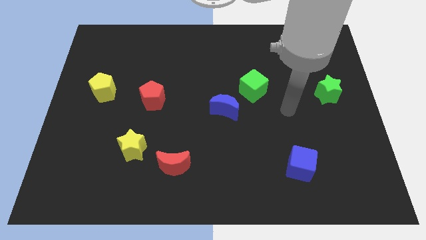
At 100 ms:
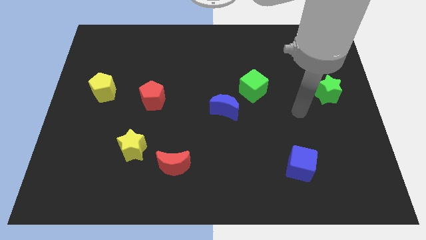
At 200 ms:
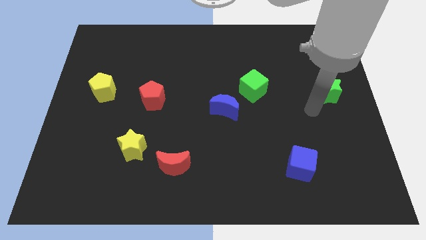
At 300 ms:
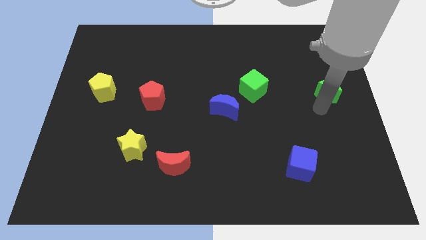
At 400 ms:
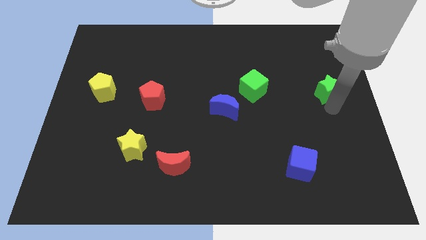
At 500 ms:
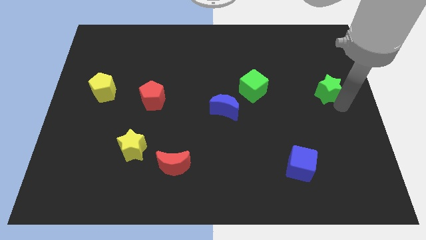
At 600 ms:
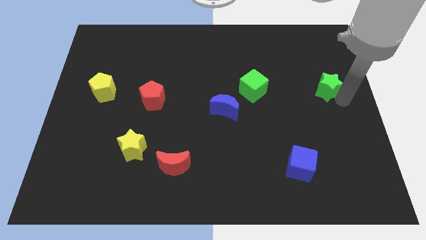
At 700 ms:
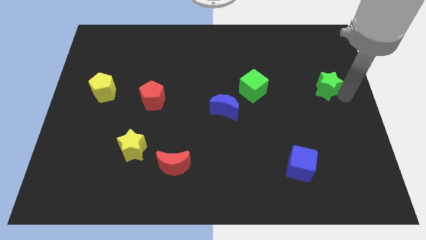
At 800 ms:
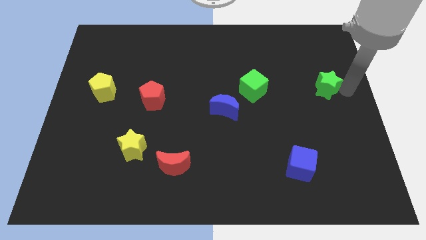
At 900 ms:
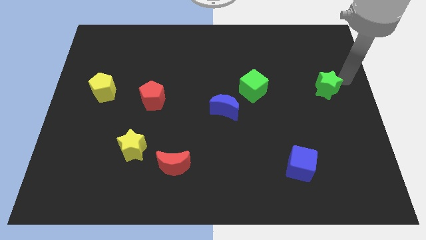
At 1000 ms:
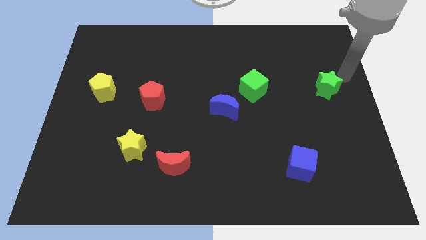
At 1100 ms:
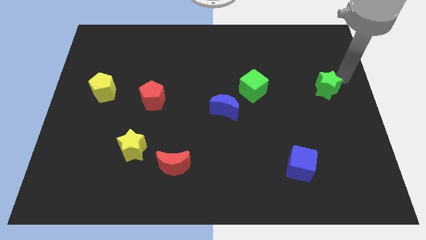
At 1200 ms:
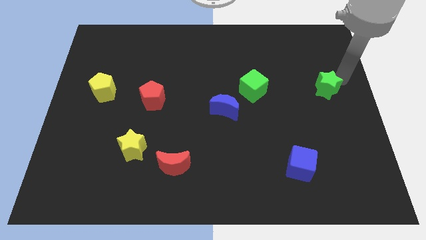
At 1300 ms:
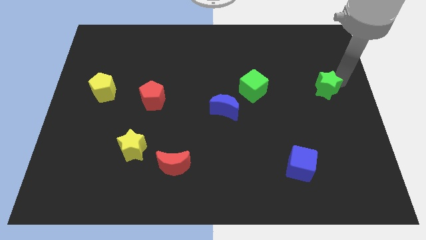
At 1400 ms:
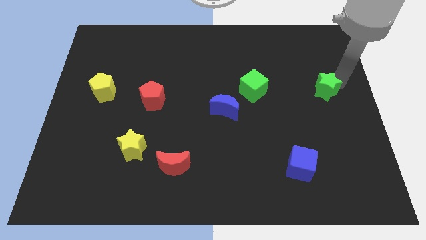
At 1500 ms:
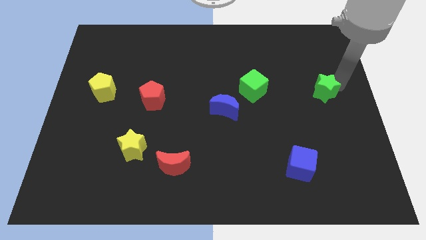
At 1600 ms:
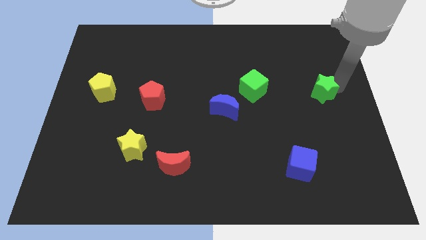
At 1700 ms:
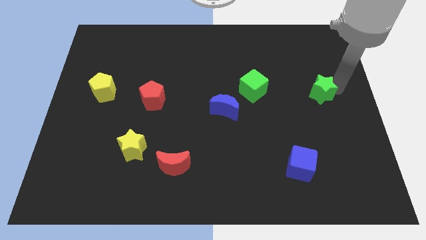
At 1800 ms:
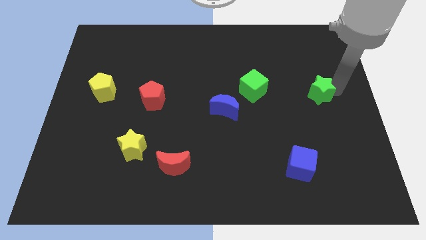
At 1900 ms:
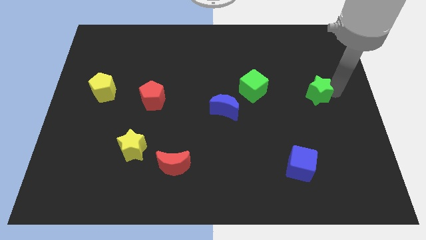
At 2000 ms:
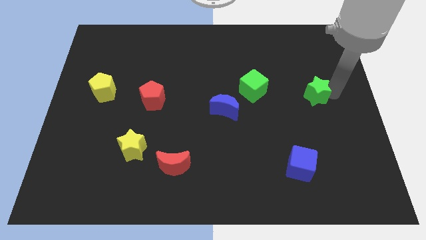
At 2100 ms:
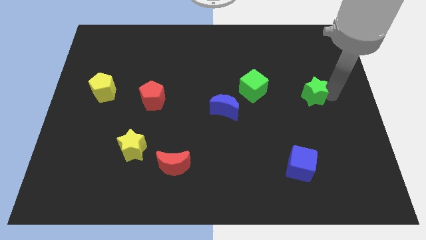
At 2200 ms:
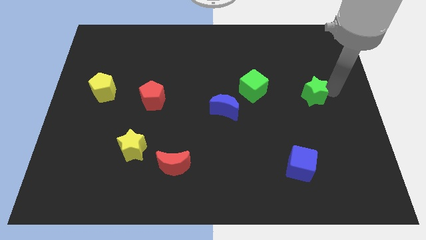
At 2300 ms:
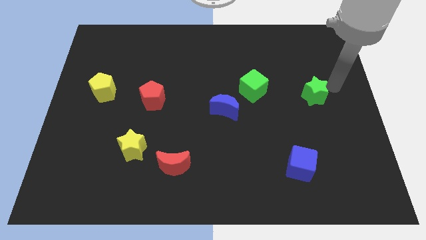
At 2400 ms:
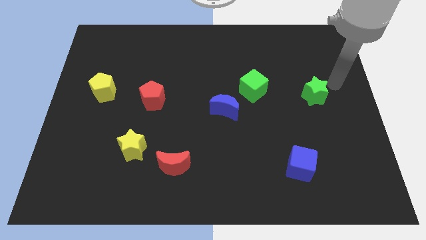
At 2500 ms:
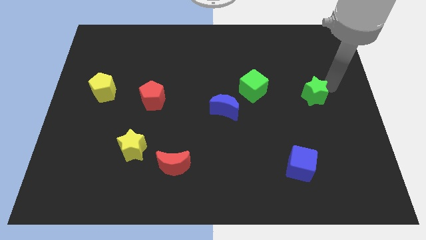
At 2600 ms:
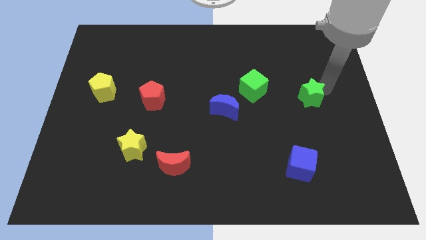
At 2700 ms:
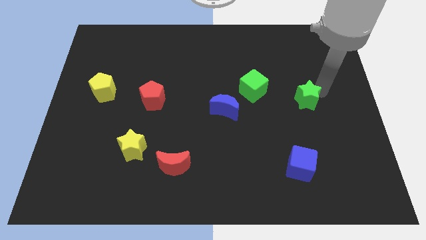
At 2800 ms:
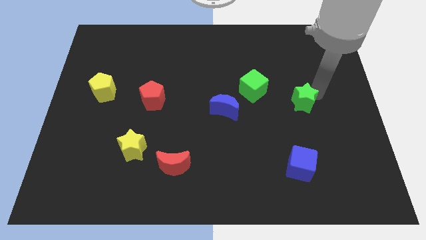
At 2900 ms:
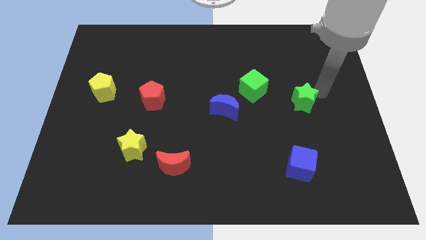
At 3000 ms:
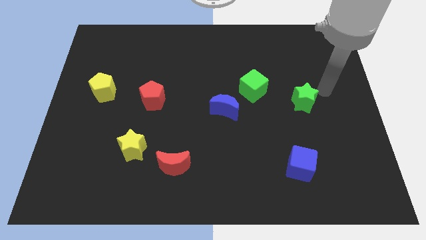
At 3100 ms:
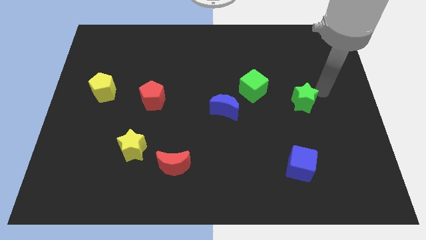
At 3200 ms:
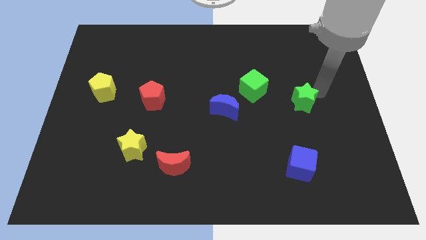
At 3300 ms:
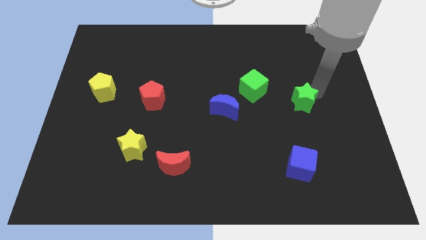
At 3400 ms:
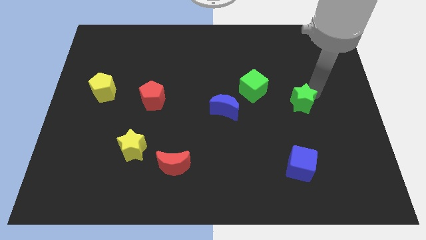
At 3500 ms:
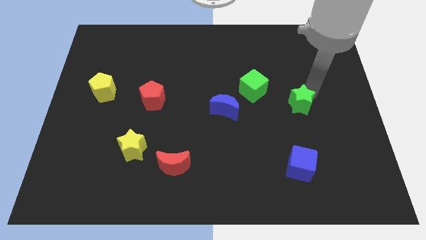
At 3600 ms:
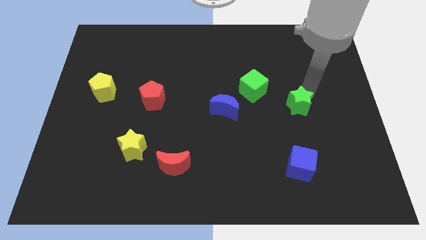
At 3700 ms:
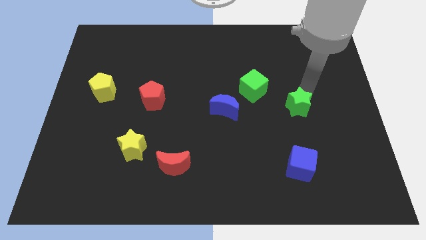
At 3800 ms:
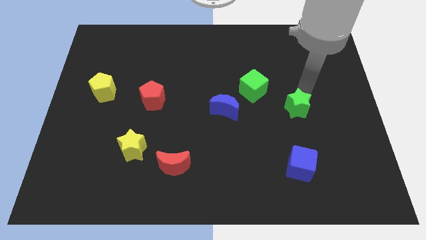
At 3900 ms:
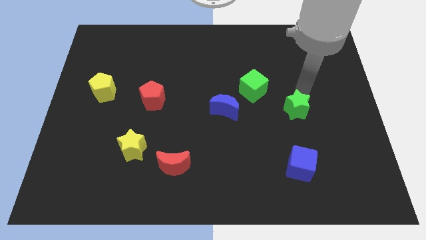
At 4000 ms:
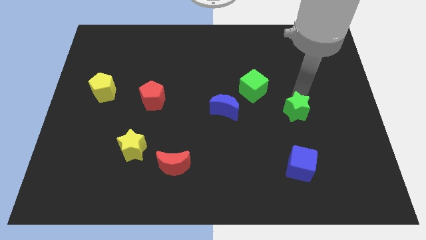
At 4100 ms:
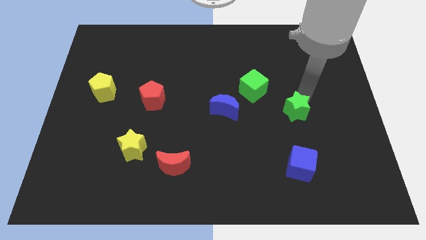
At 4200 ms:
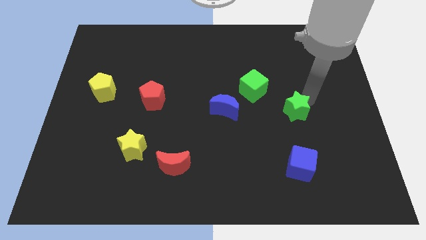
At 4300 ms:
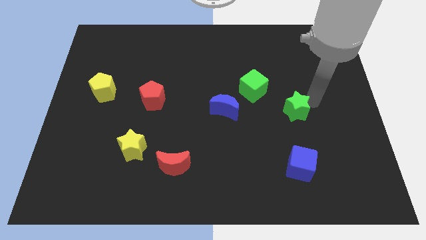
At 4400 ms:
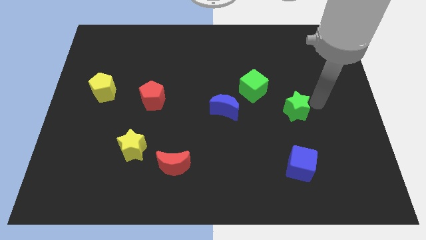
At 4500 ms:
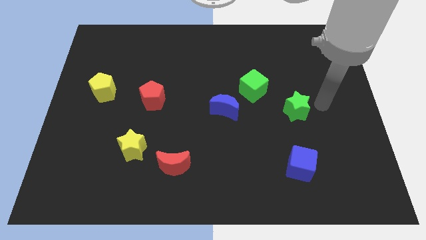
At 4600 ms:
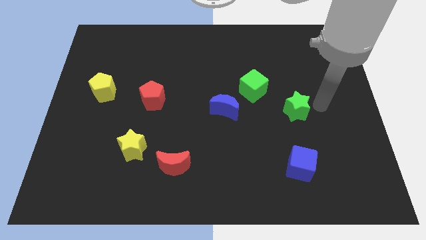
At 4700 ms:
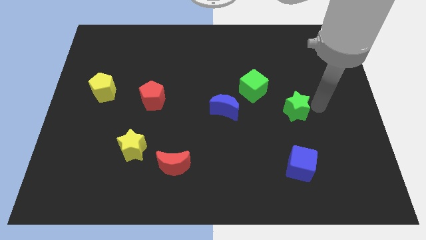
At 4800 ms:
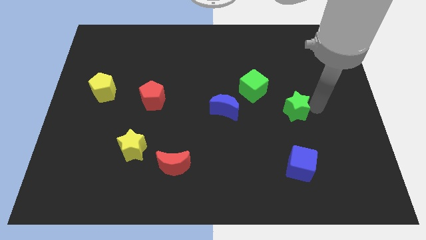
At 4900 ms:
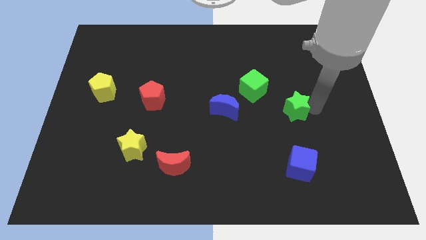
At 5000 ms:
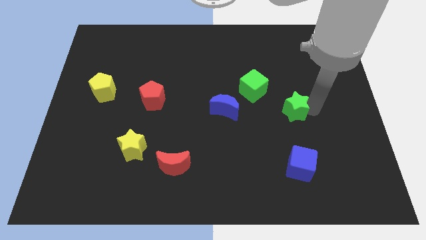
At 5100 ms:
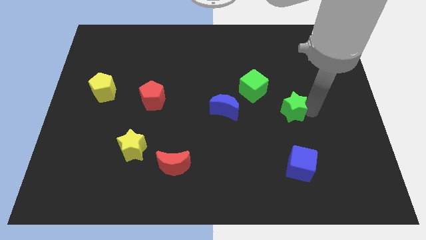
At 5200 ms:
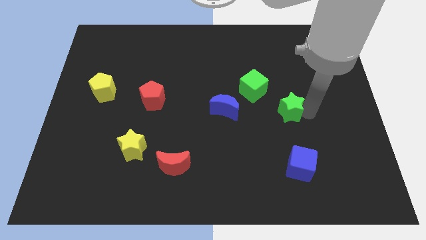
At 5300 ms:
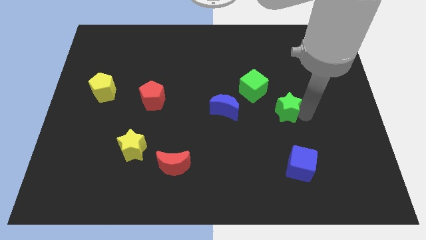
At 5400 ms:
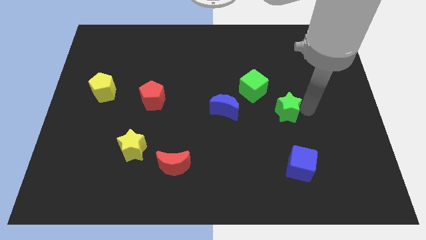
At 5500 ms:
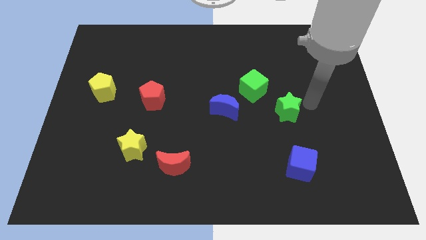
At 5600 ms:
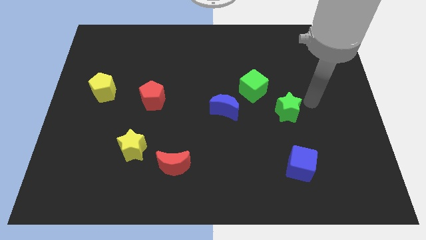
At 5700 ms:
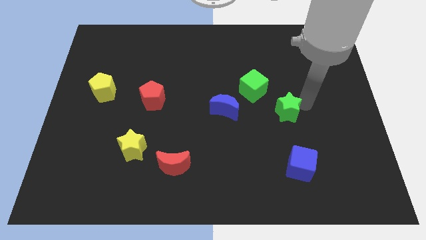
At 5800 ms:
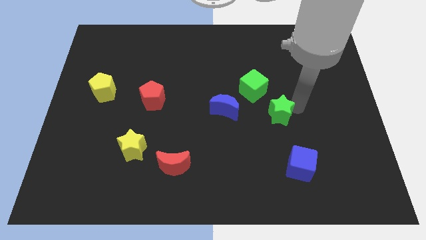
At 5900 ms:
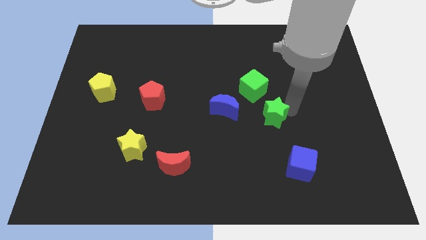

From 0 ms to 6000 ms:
slide the green star to the bottom of the green cube

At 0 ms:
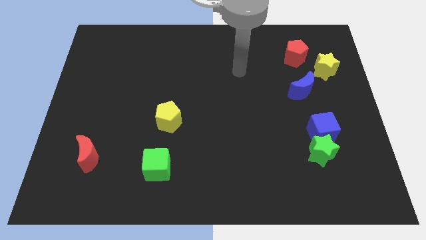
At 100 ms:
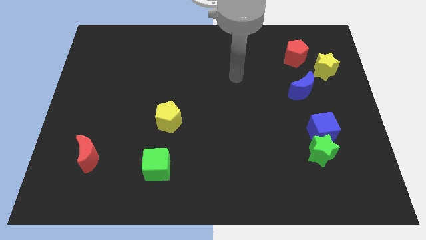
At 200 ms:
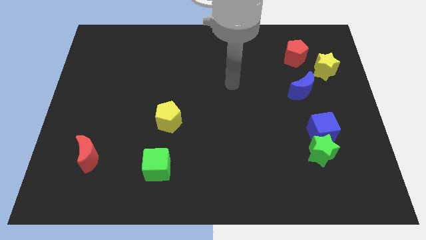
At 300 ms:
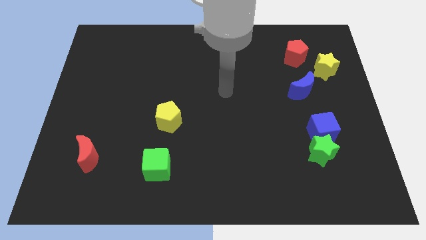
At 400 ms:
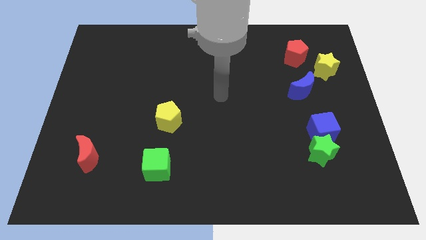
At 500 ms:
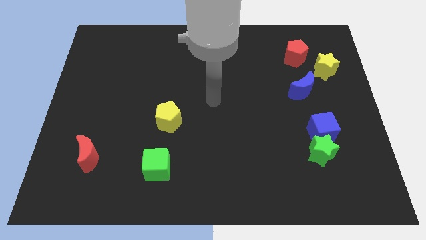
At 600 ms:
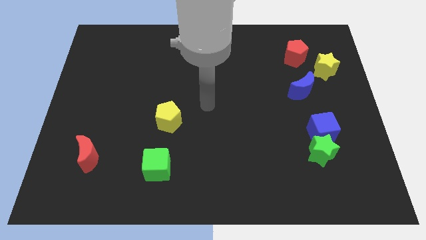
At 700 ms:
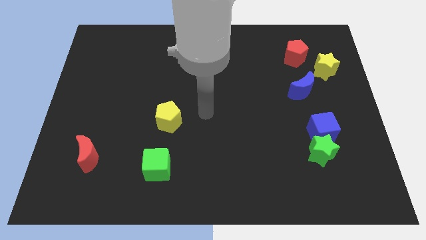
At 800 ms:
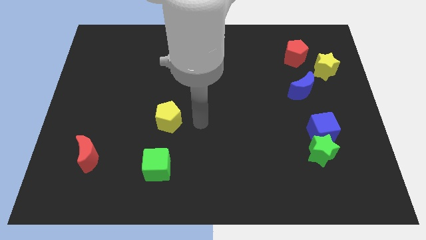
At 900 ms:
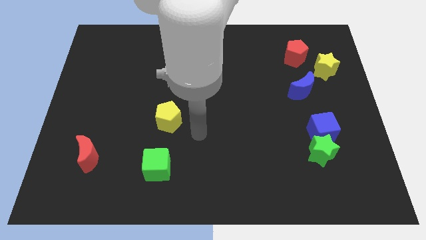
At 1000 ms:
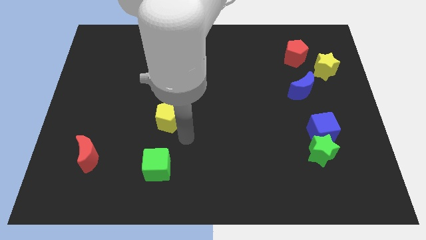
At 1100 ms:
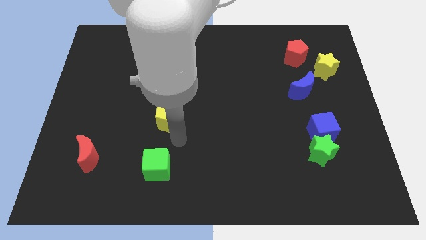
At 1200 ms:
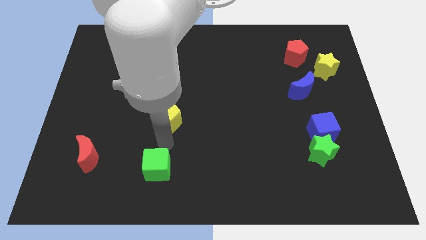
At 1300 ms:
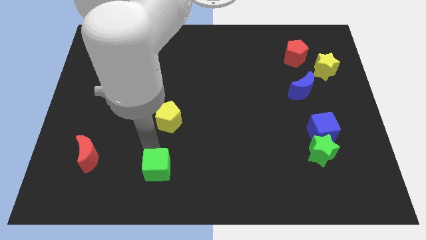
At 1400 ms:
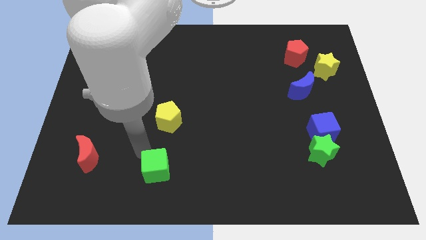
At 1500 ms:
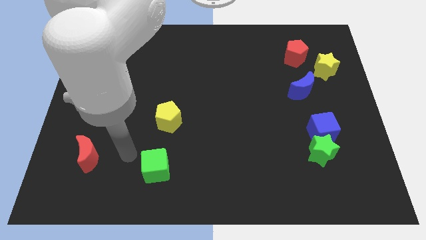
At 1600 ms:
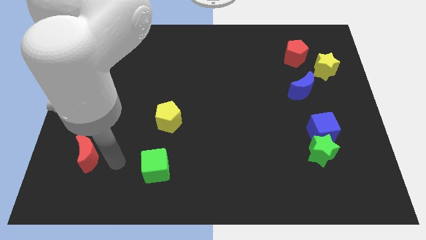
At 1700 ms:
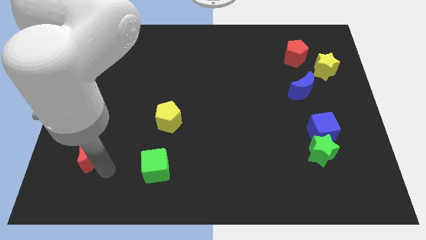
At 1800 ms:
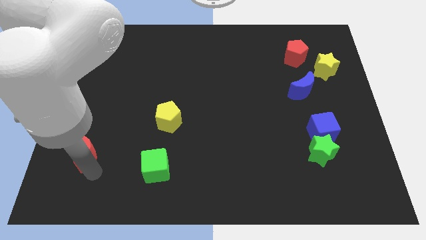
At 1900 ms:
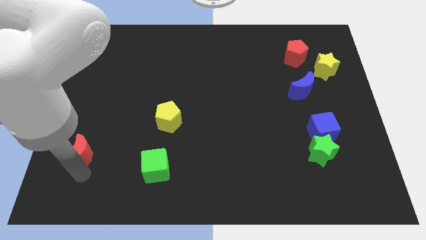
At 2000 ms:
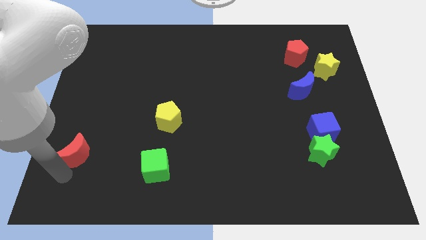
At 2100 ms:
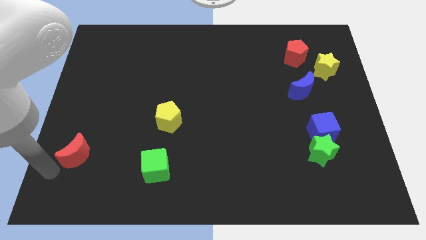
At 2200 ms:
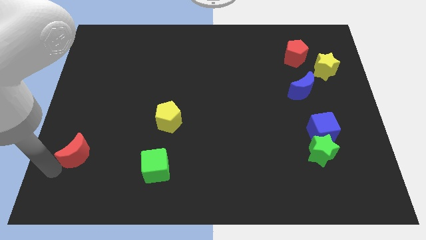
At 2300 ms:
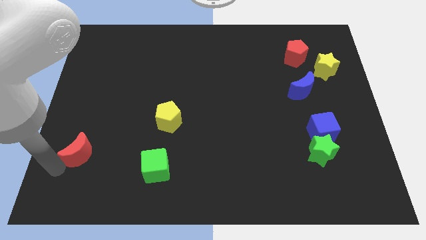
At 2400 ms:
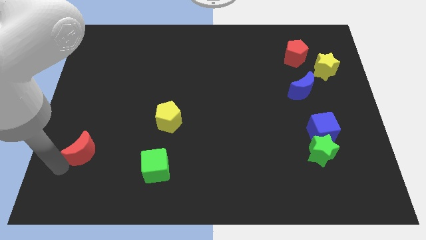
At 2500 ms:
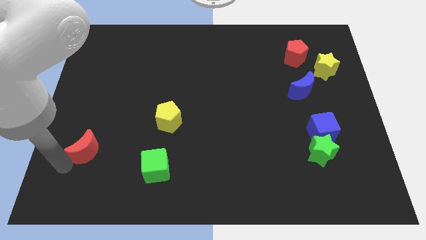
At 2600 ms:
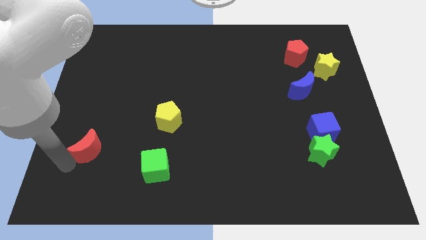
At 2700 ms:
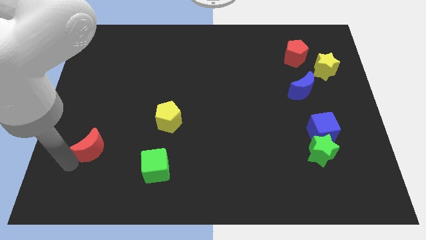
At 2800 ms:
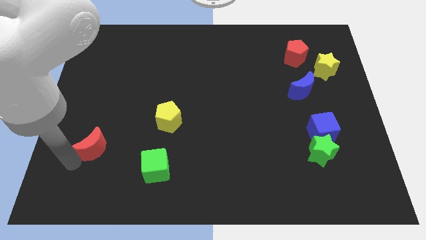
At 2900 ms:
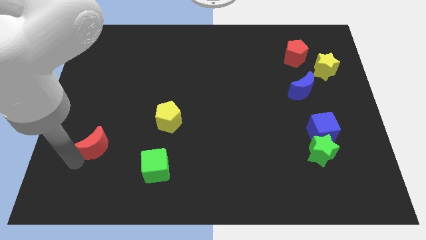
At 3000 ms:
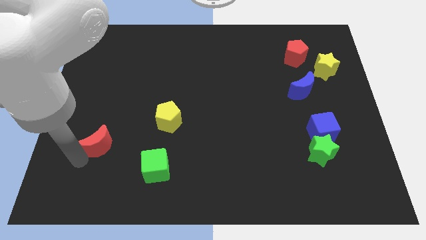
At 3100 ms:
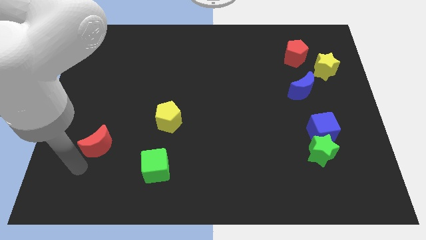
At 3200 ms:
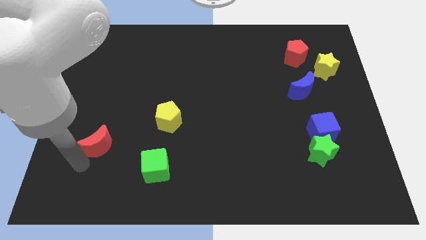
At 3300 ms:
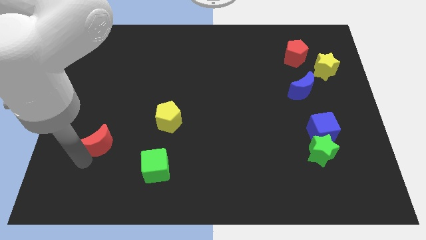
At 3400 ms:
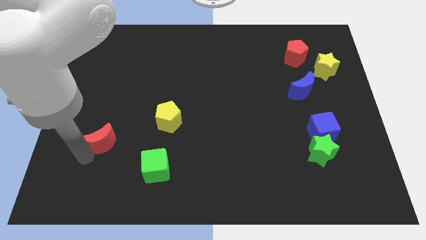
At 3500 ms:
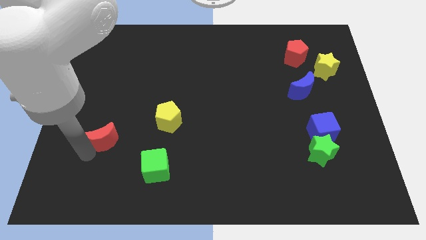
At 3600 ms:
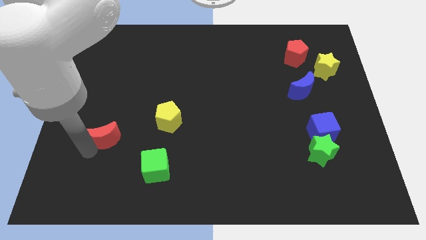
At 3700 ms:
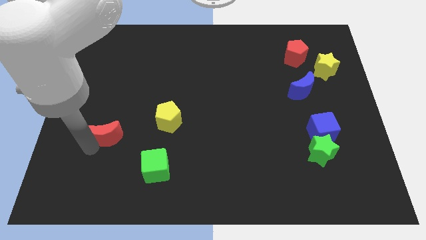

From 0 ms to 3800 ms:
slide the red moon to the left of the yellow pentagon
